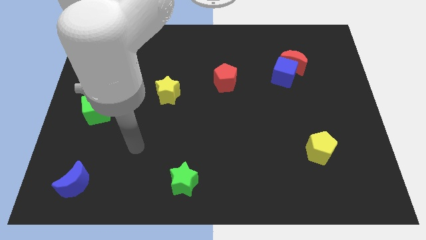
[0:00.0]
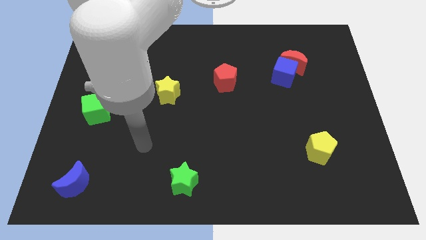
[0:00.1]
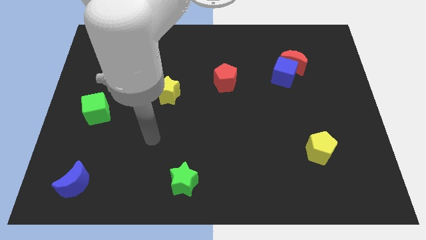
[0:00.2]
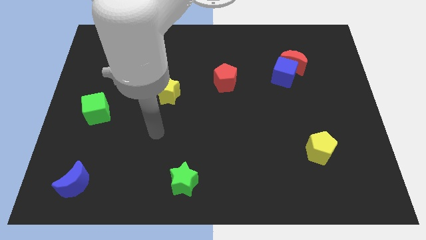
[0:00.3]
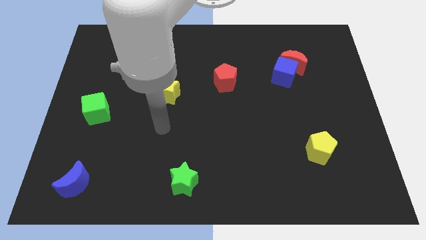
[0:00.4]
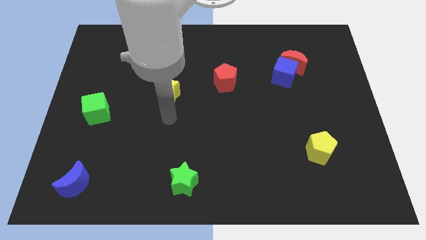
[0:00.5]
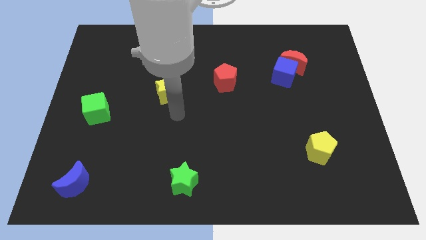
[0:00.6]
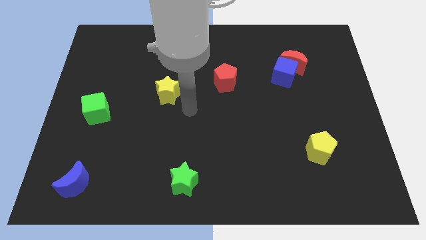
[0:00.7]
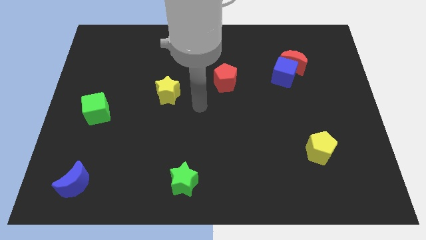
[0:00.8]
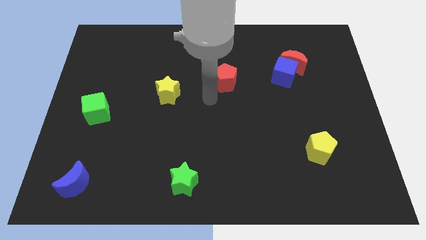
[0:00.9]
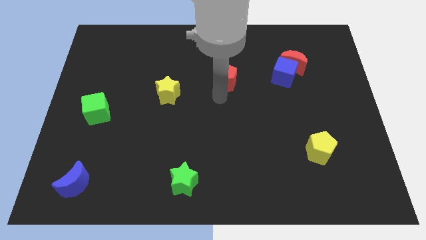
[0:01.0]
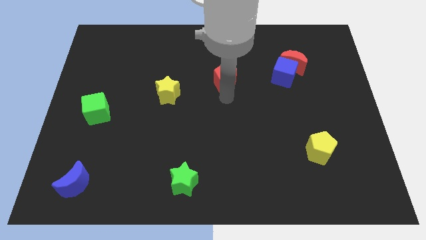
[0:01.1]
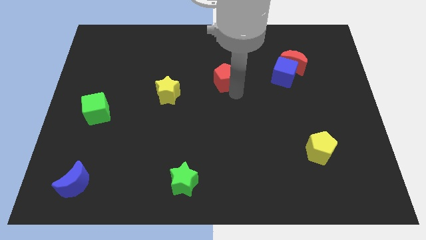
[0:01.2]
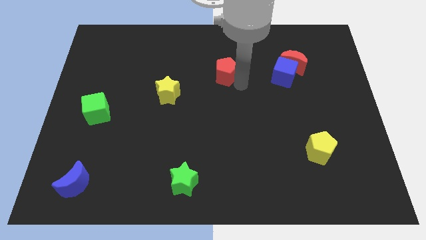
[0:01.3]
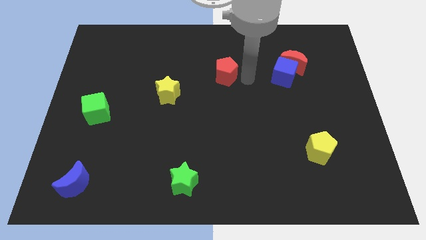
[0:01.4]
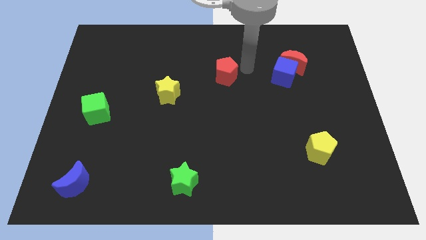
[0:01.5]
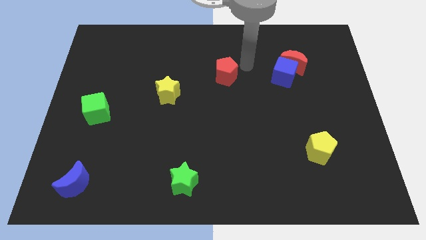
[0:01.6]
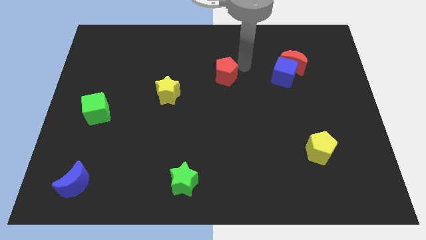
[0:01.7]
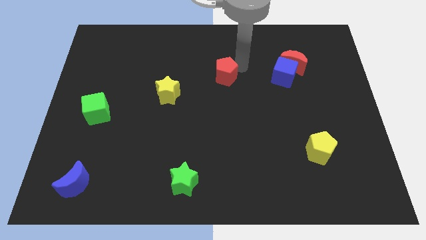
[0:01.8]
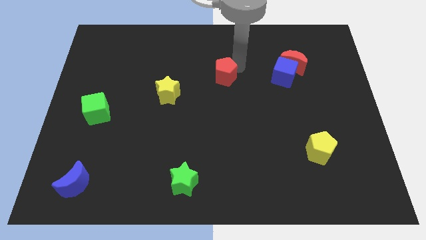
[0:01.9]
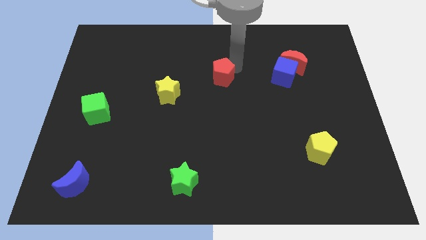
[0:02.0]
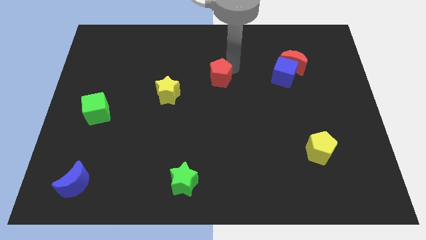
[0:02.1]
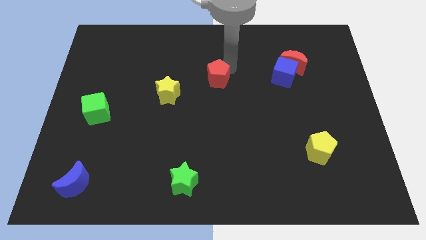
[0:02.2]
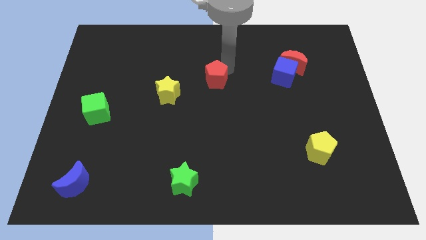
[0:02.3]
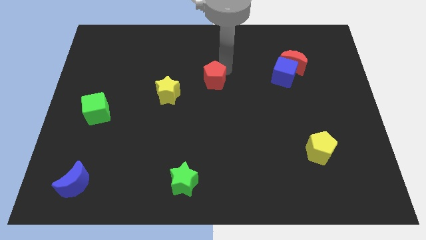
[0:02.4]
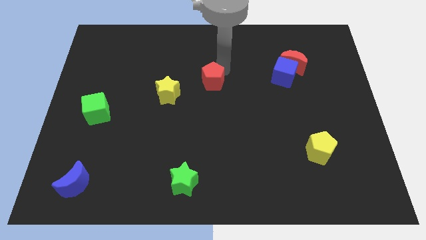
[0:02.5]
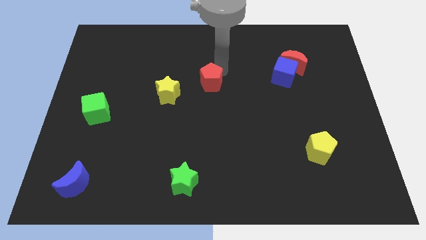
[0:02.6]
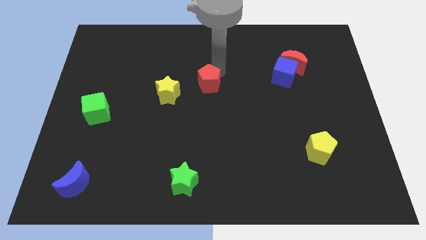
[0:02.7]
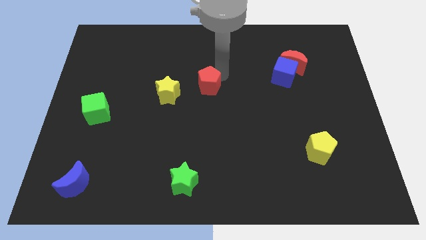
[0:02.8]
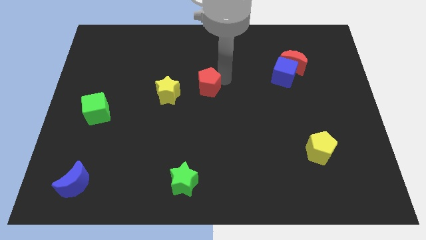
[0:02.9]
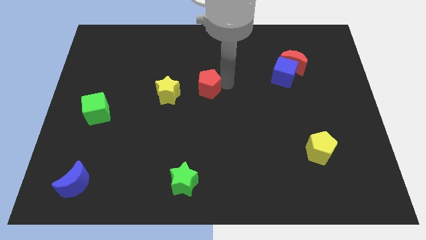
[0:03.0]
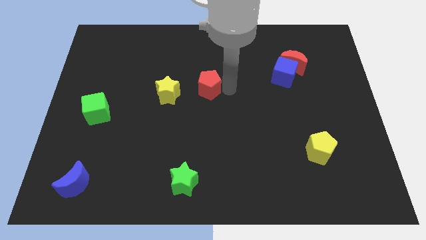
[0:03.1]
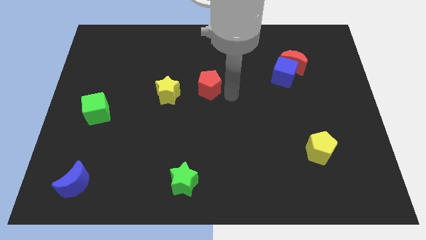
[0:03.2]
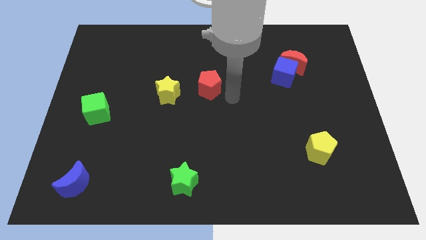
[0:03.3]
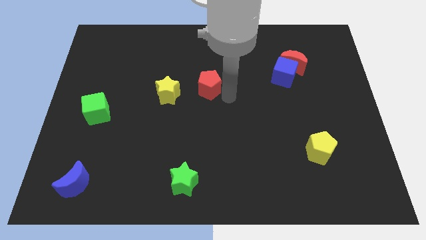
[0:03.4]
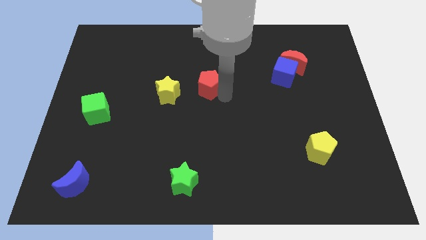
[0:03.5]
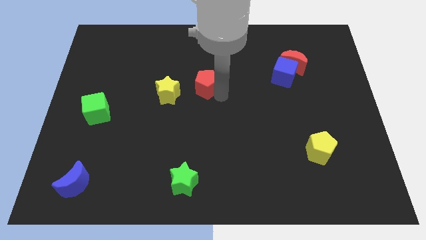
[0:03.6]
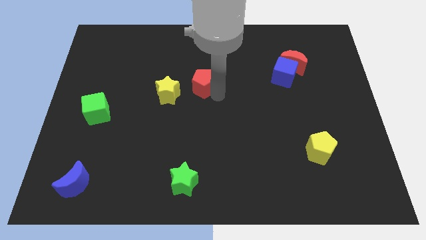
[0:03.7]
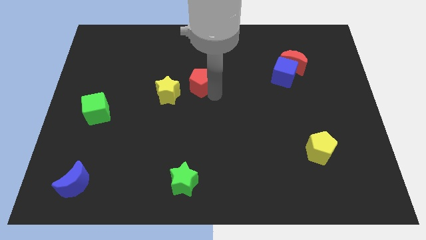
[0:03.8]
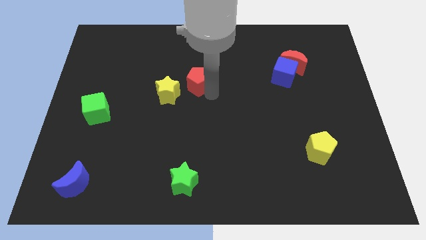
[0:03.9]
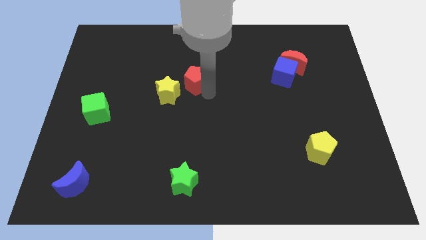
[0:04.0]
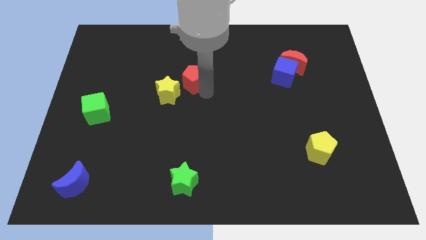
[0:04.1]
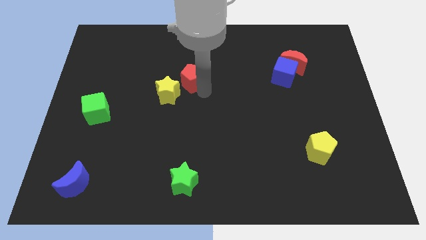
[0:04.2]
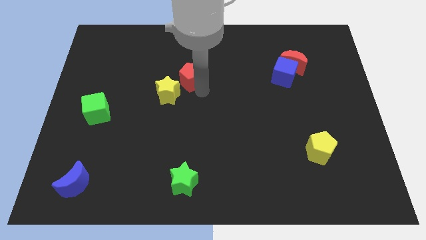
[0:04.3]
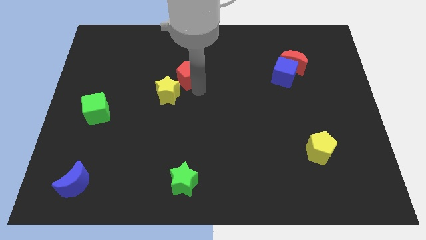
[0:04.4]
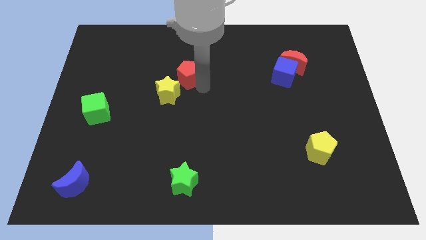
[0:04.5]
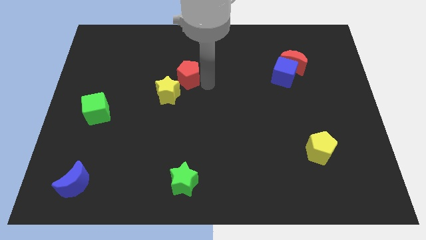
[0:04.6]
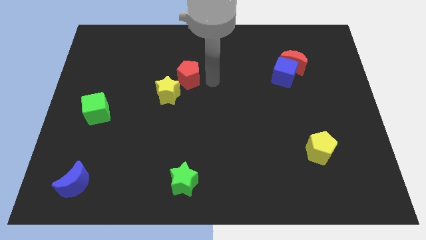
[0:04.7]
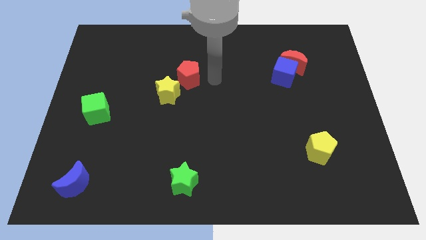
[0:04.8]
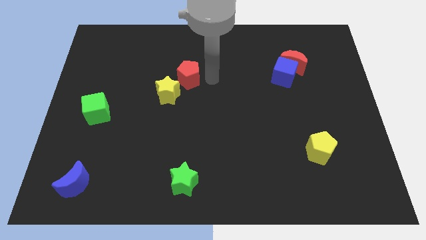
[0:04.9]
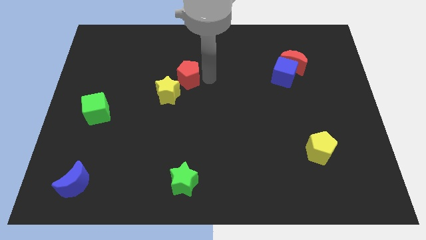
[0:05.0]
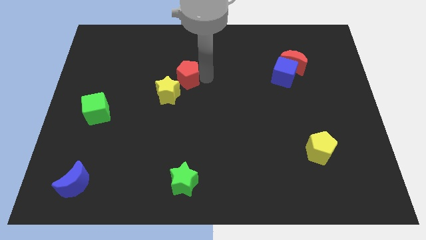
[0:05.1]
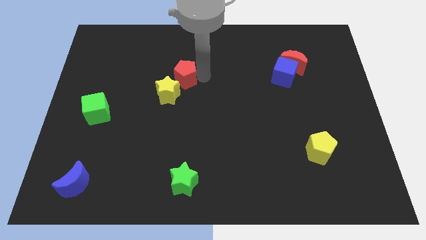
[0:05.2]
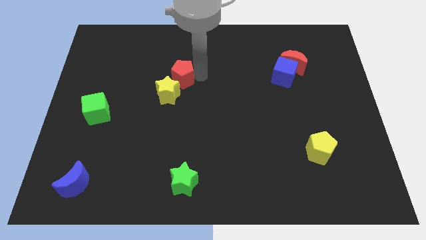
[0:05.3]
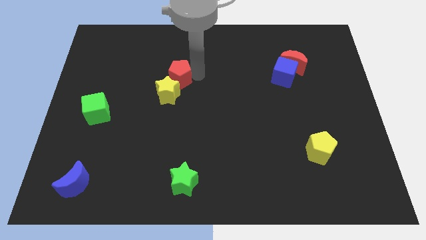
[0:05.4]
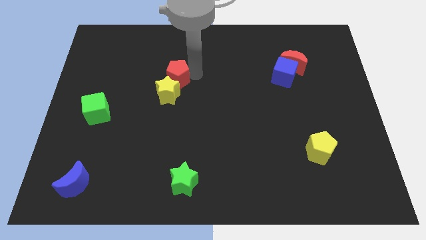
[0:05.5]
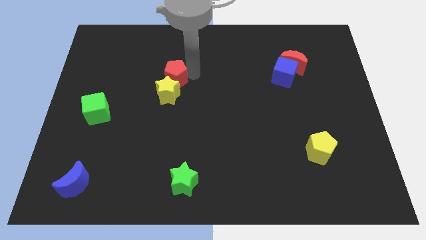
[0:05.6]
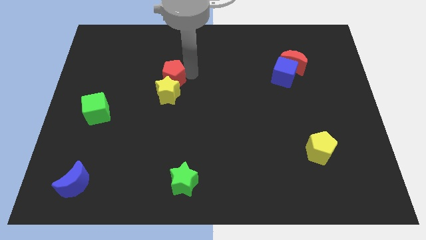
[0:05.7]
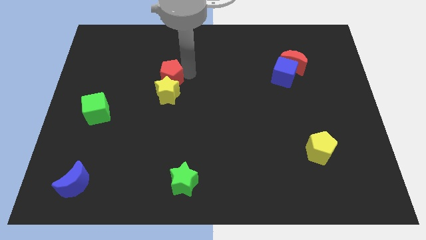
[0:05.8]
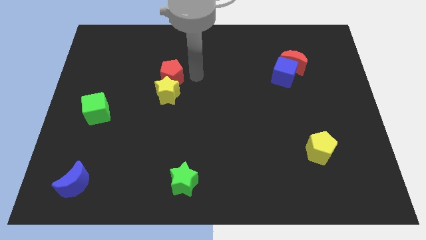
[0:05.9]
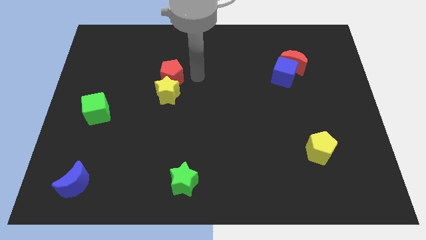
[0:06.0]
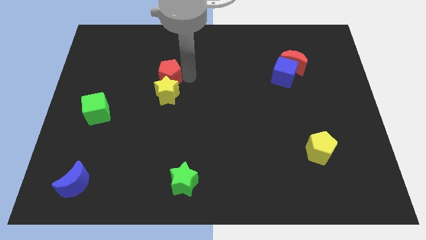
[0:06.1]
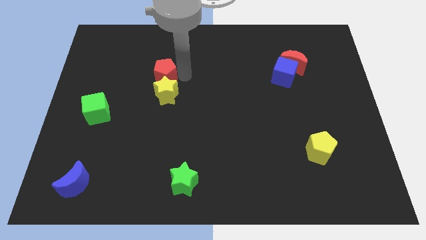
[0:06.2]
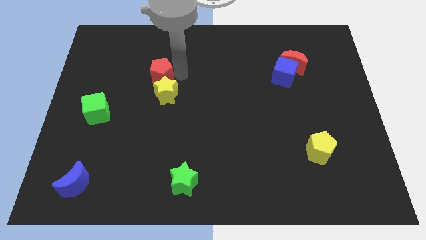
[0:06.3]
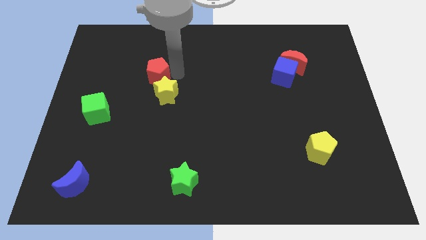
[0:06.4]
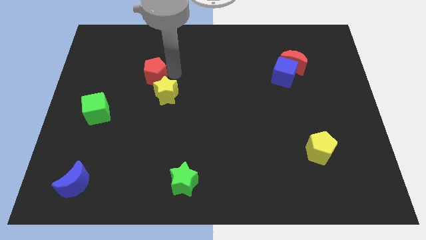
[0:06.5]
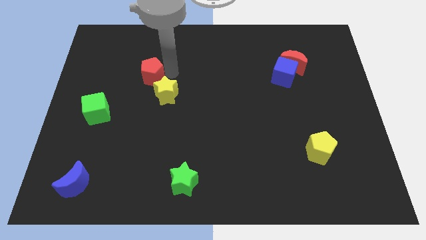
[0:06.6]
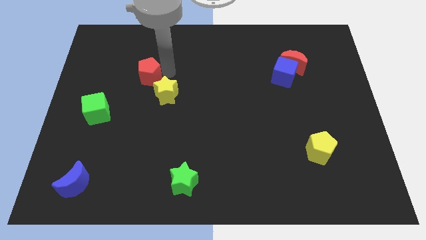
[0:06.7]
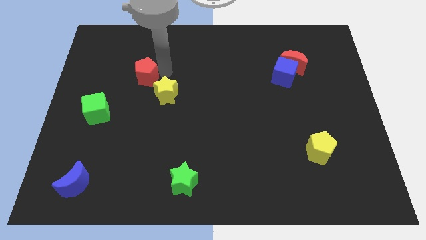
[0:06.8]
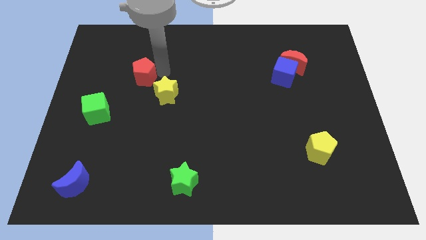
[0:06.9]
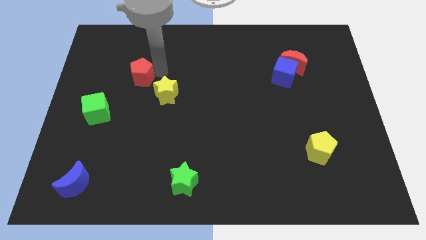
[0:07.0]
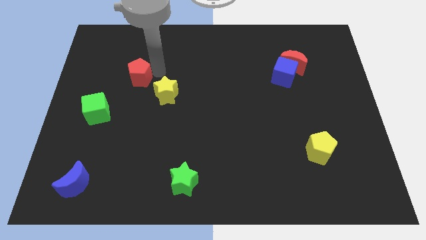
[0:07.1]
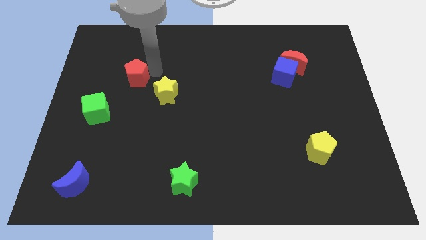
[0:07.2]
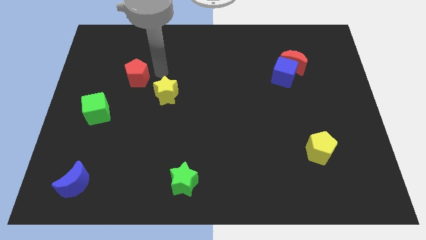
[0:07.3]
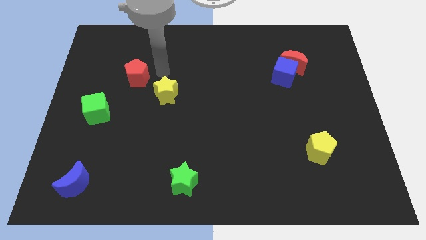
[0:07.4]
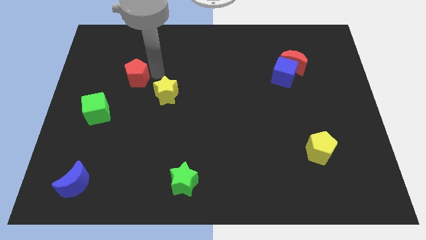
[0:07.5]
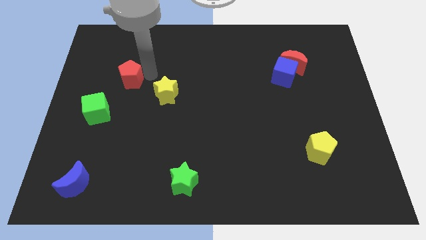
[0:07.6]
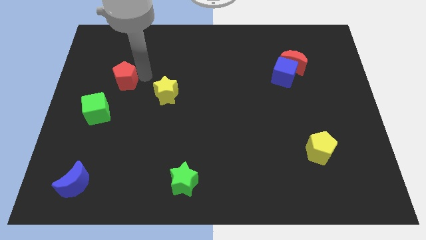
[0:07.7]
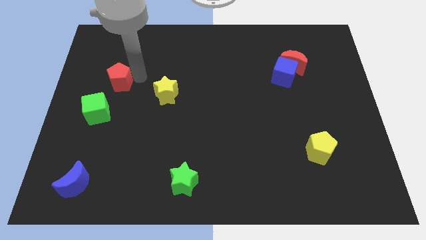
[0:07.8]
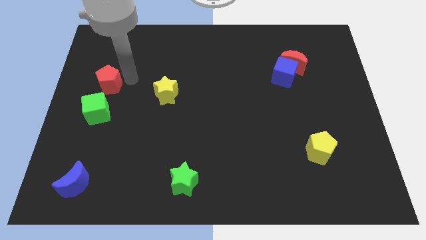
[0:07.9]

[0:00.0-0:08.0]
push the red pentagon to the left side of the board
